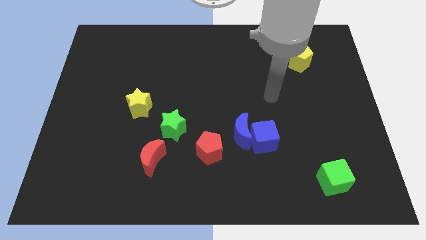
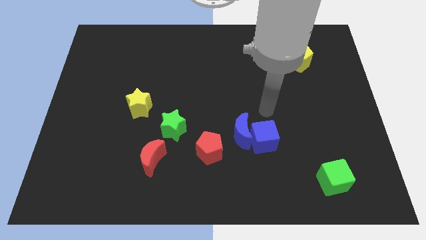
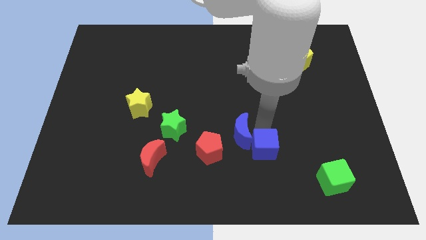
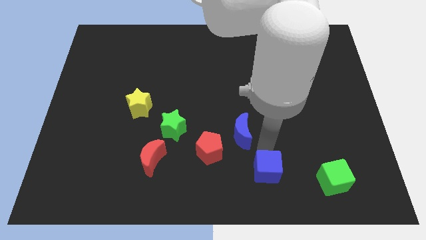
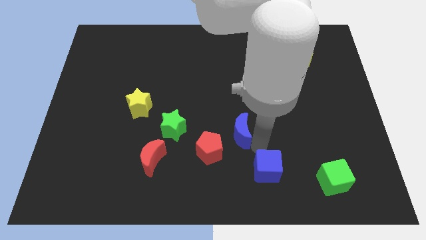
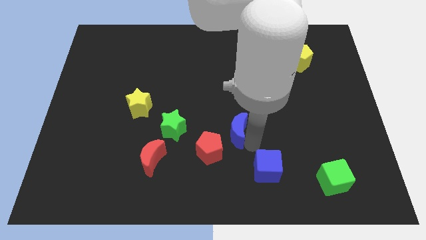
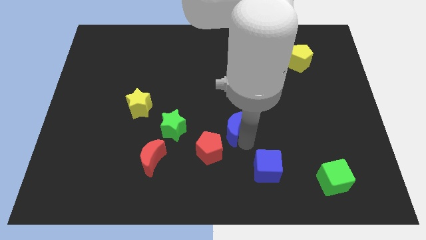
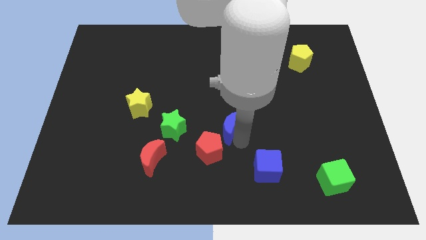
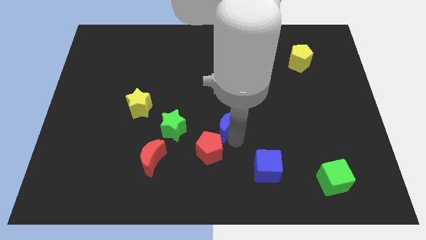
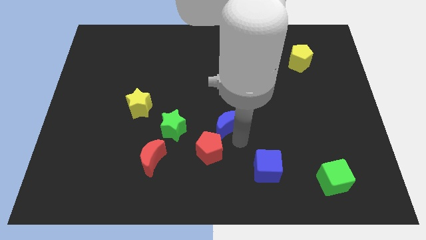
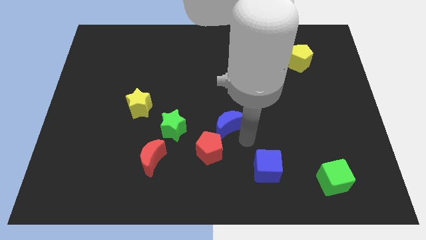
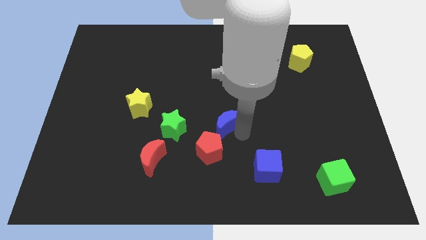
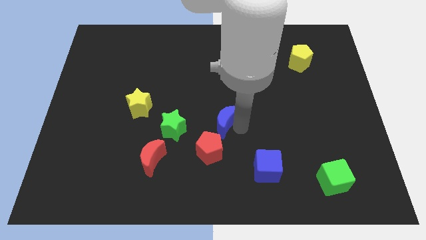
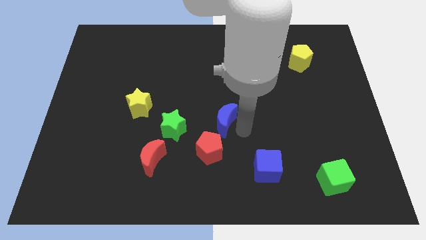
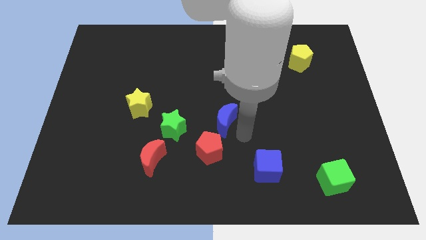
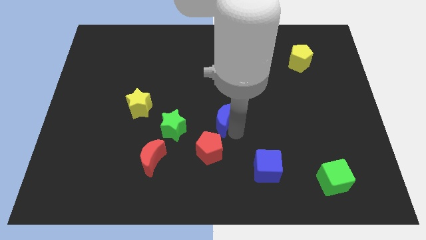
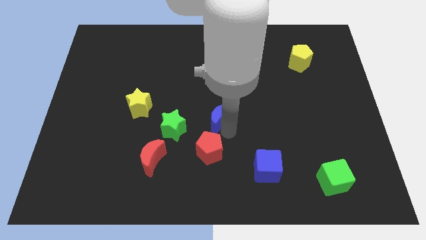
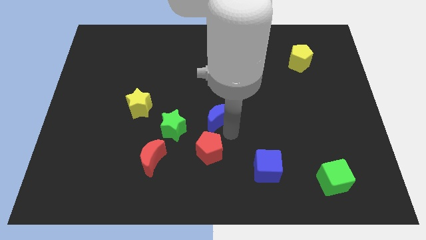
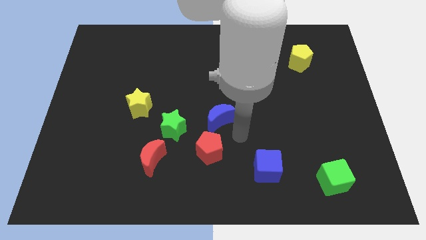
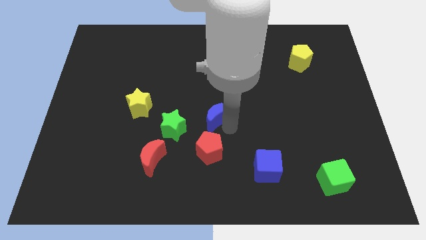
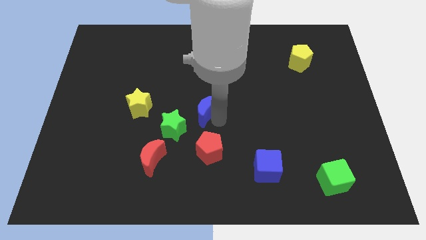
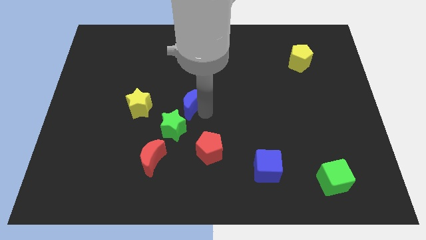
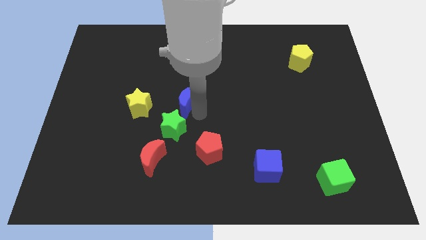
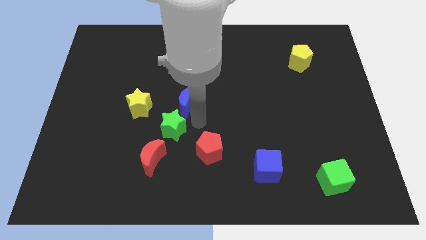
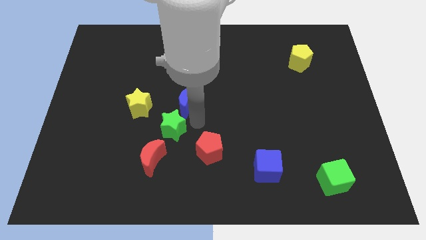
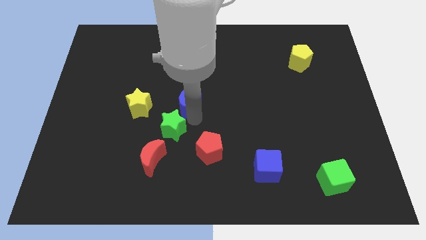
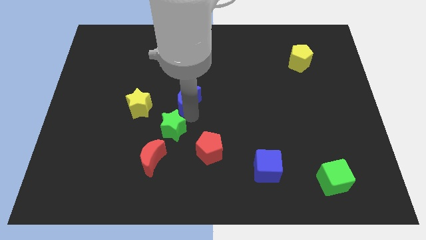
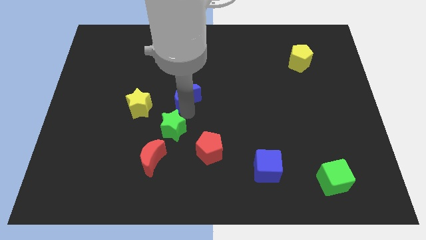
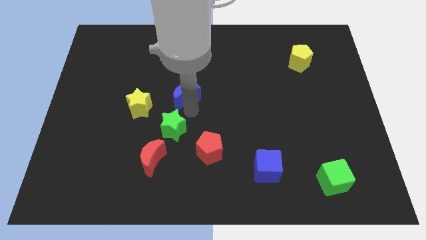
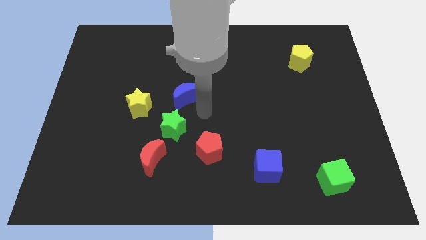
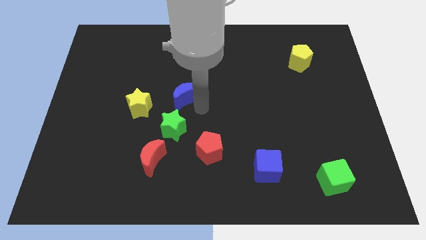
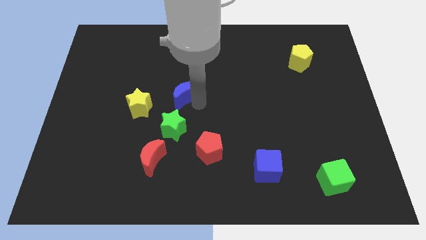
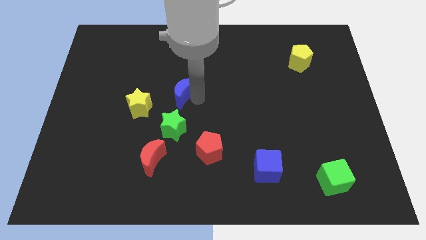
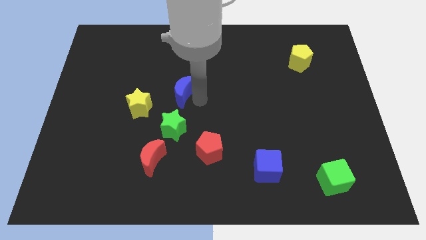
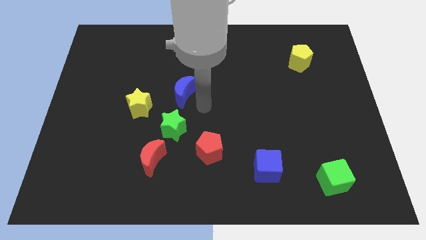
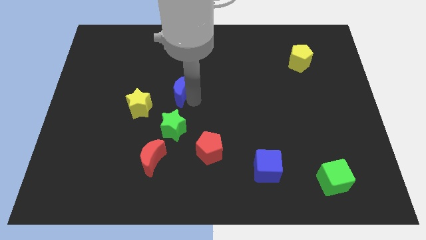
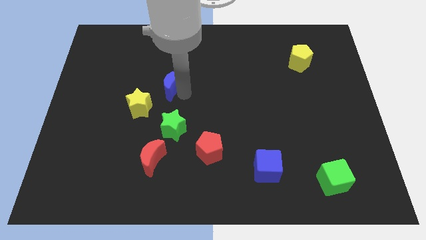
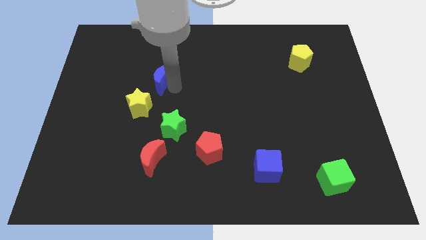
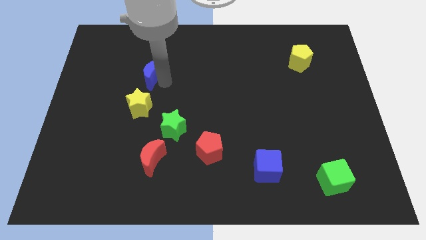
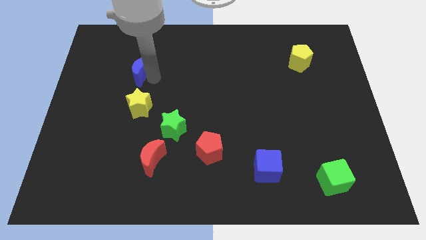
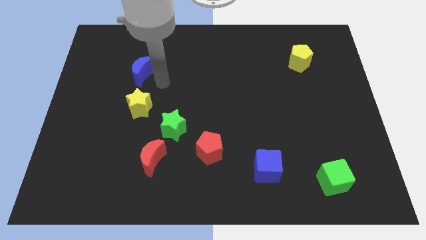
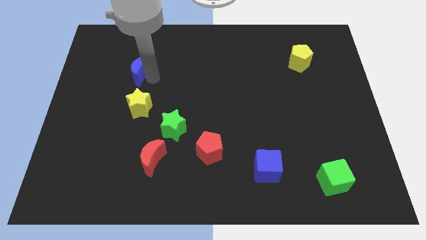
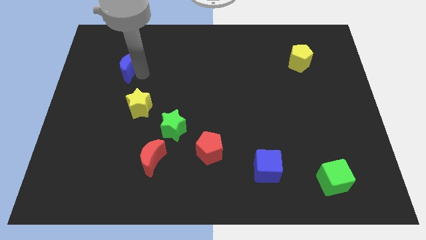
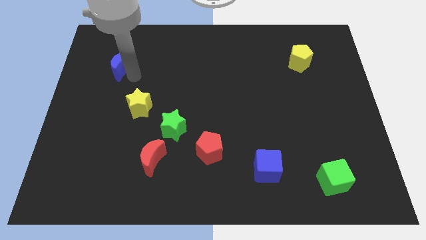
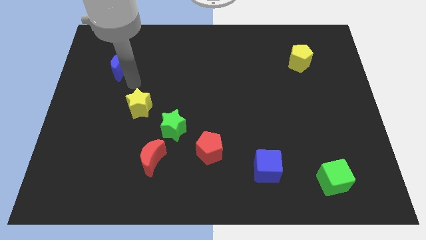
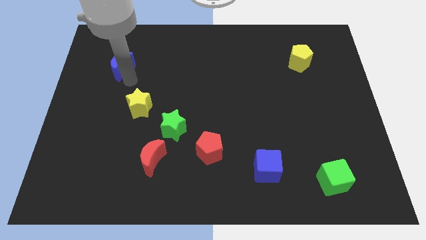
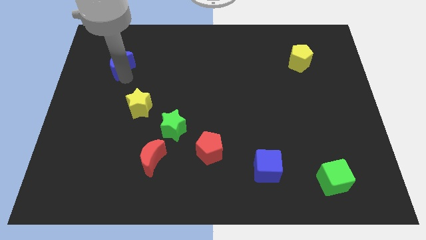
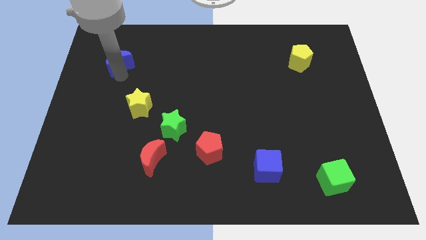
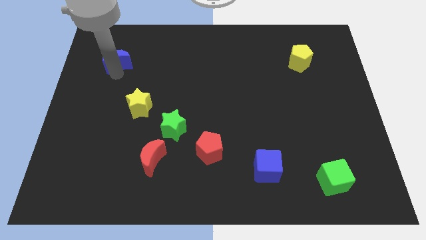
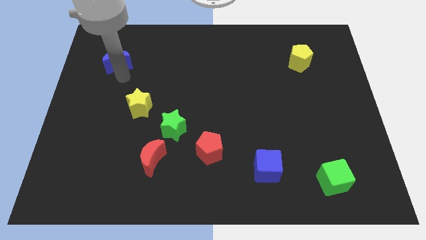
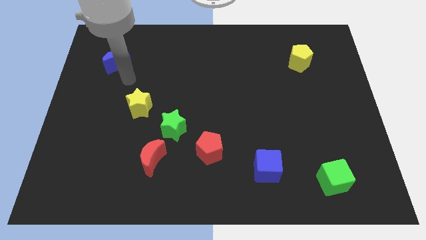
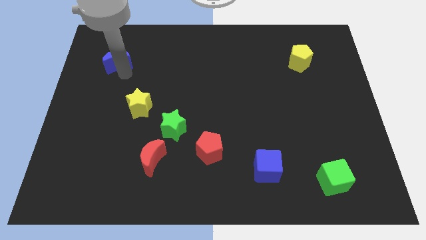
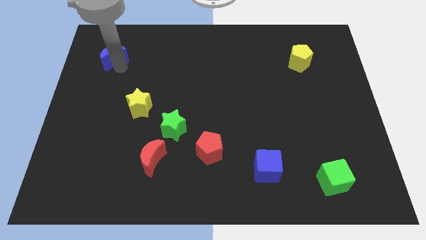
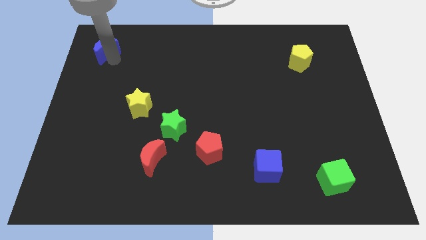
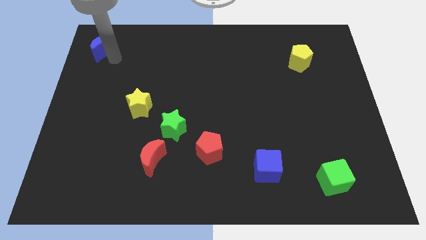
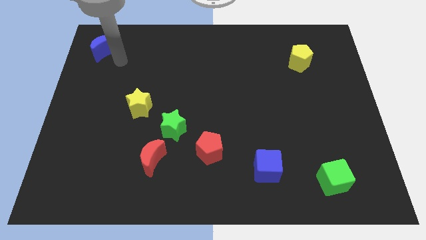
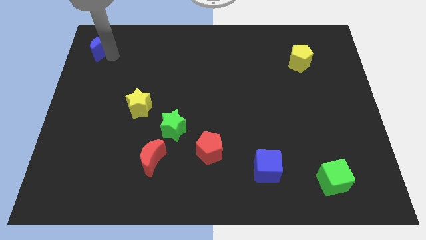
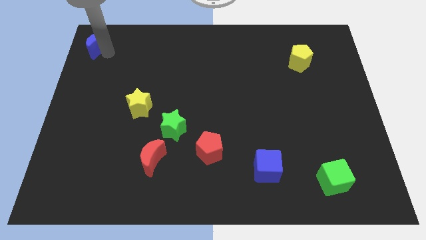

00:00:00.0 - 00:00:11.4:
put the blue moon to the top left of the board

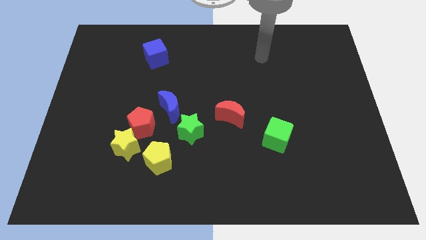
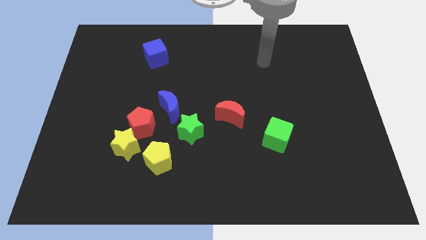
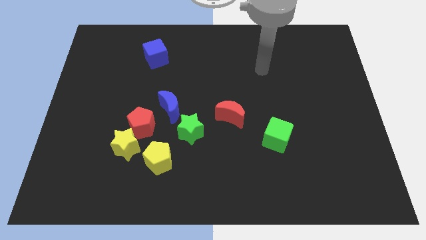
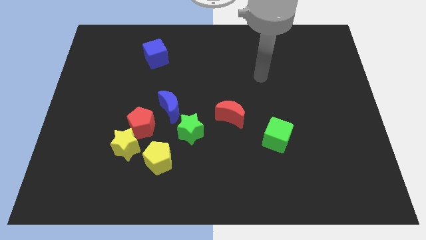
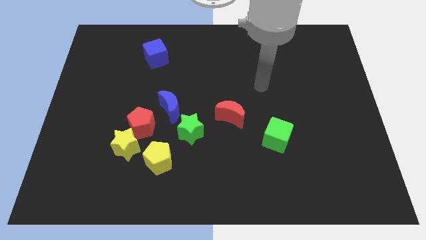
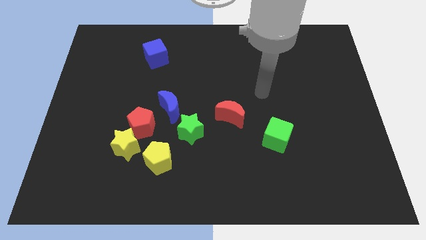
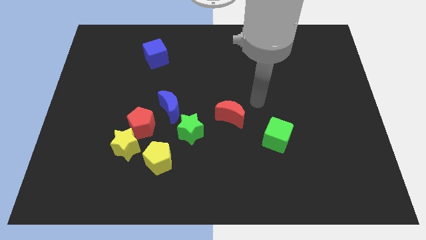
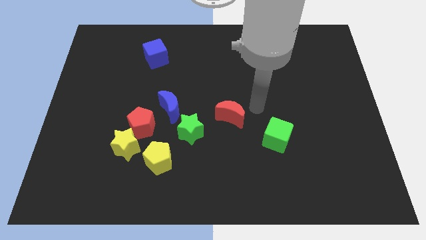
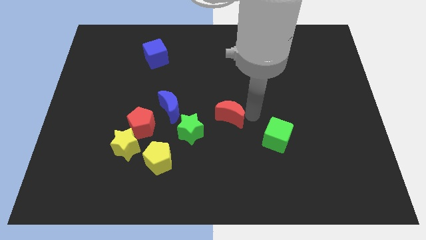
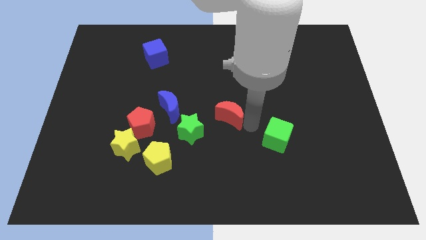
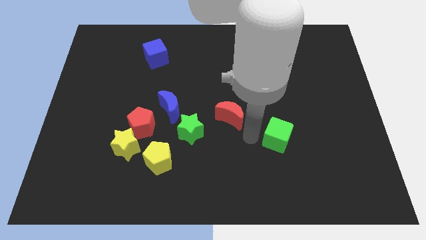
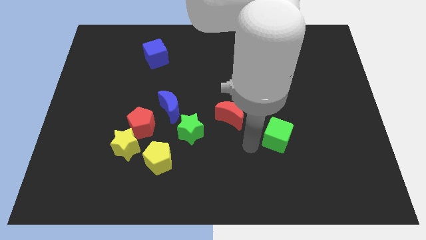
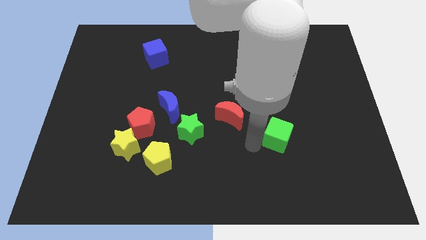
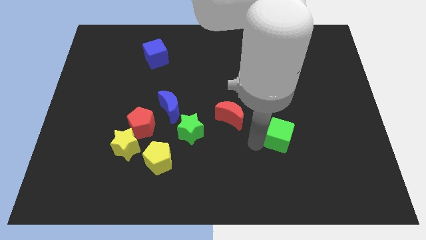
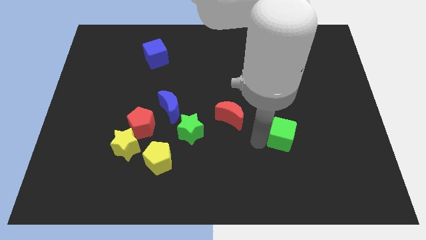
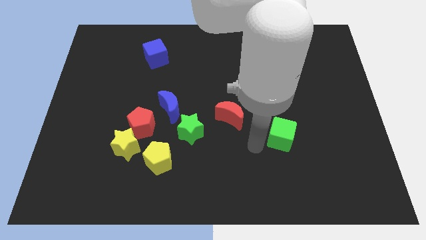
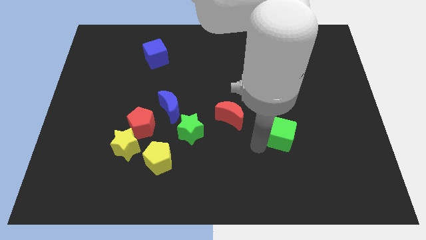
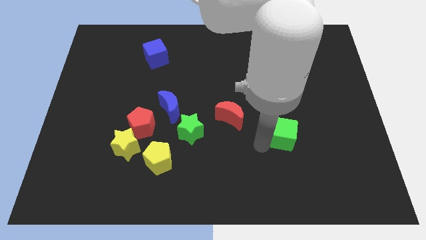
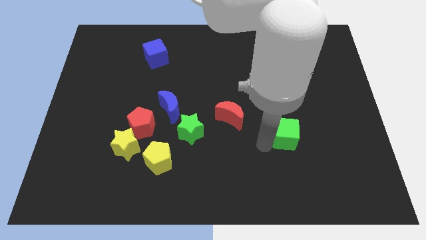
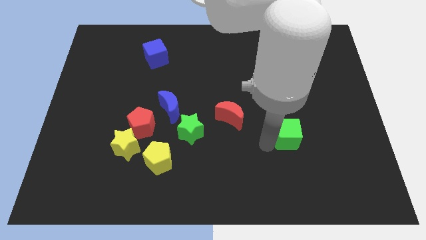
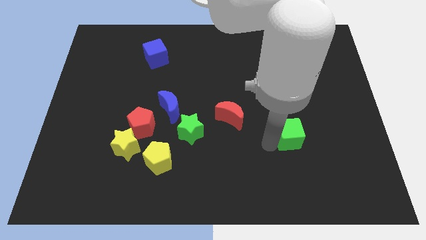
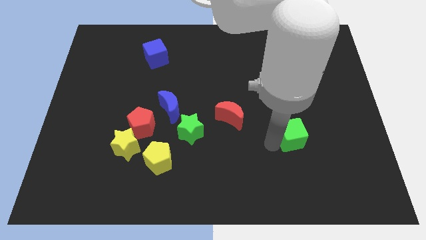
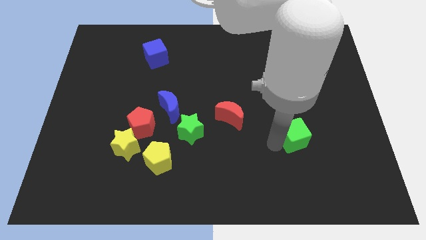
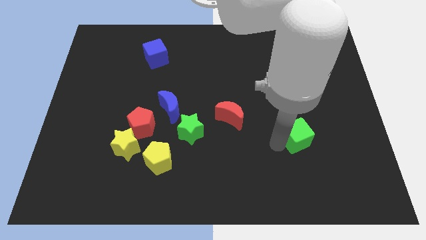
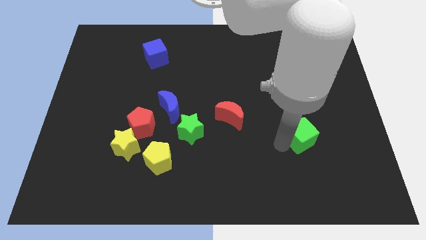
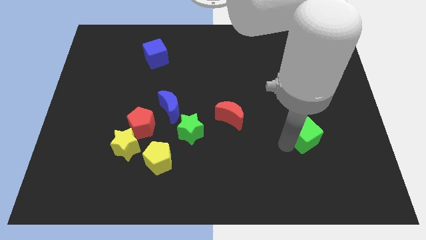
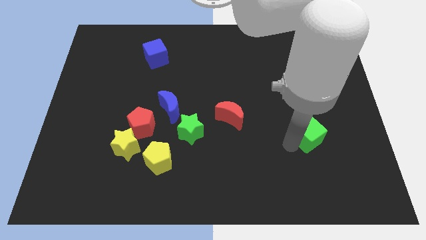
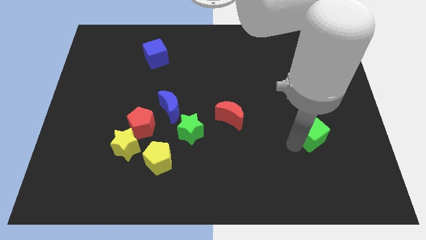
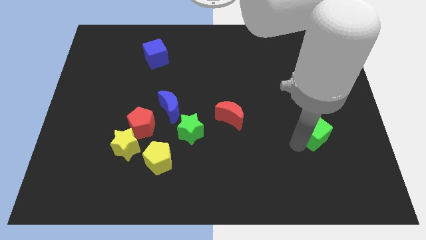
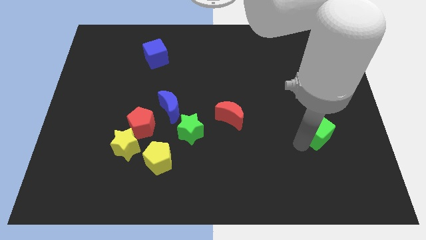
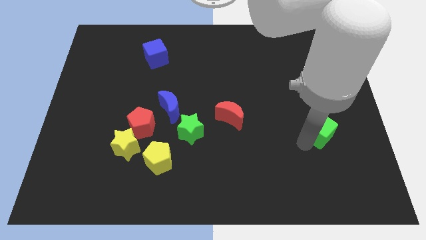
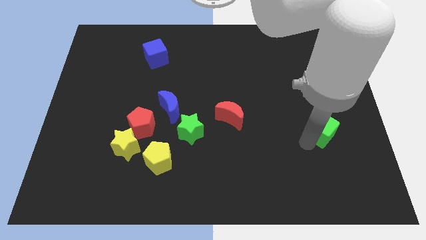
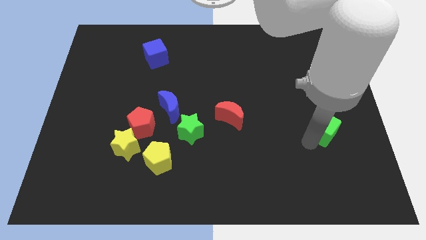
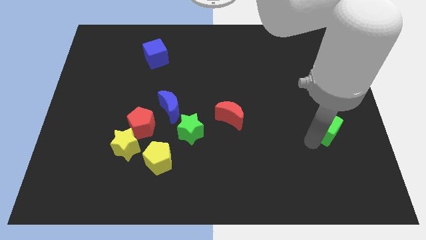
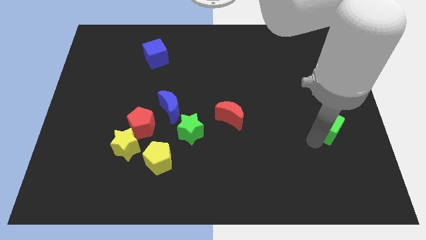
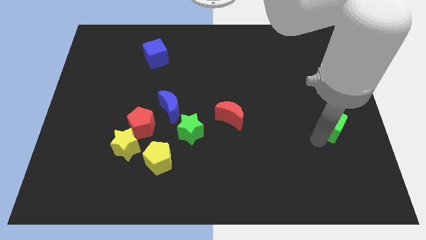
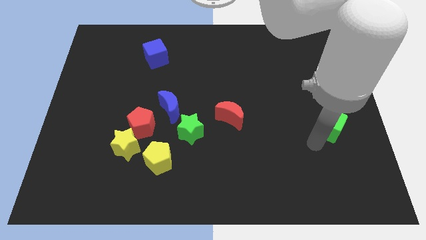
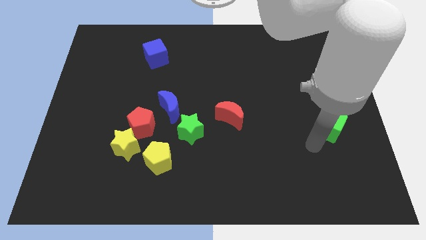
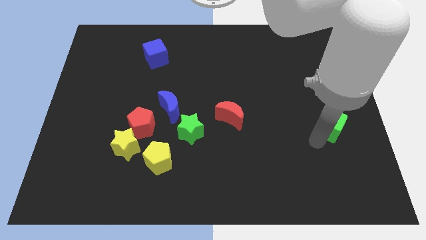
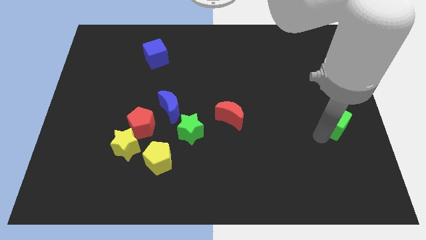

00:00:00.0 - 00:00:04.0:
put the green cube to the right side
